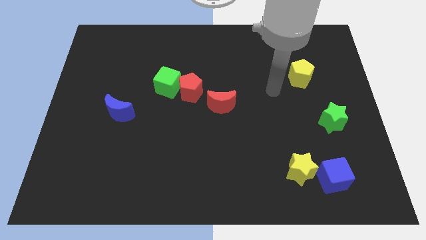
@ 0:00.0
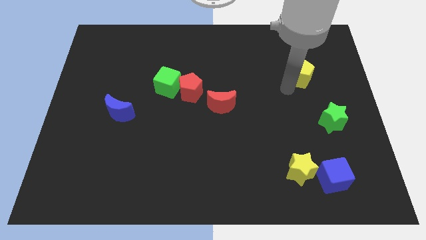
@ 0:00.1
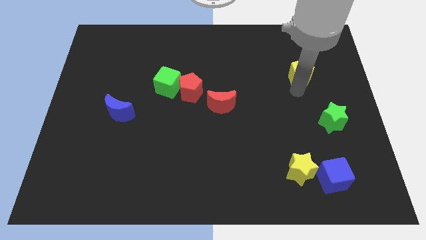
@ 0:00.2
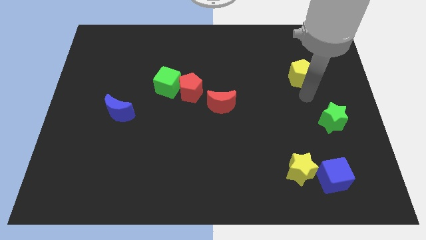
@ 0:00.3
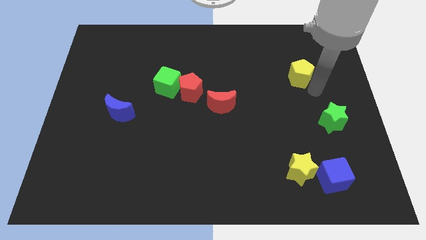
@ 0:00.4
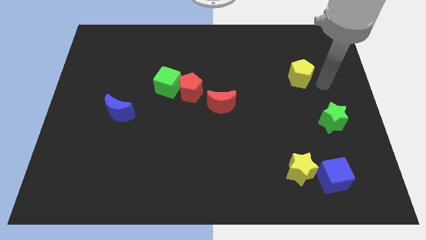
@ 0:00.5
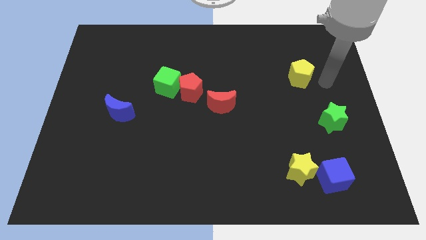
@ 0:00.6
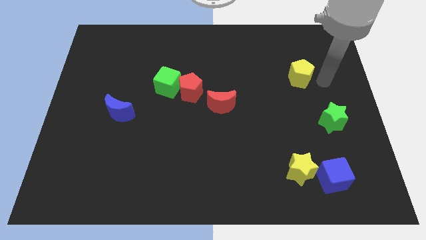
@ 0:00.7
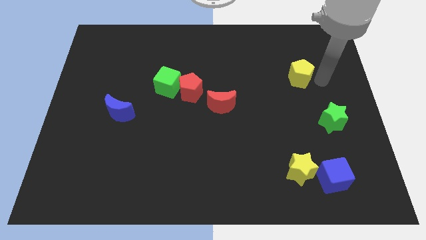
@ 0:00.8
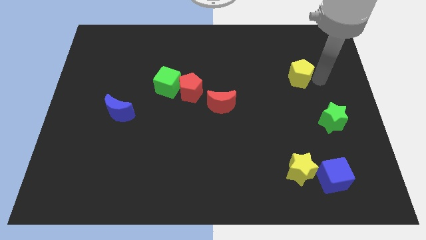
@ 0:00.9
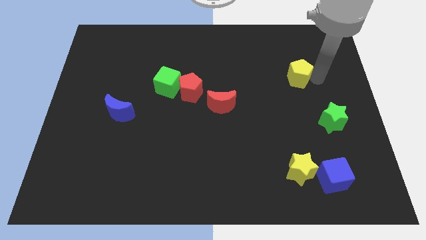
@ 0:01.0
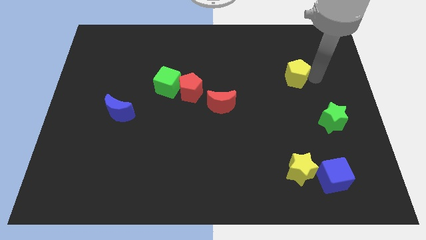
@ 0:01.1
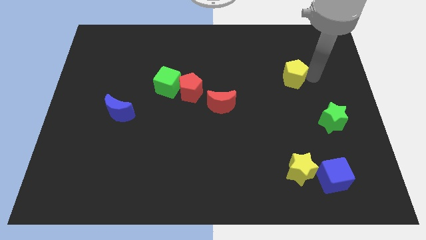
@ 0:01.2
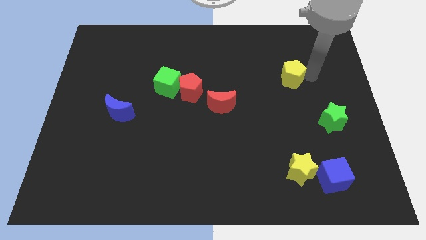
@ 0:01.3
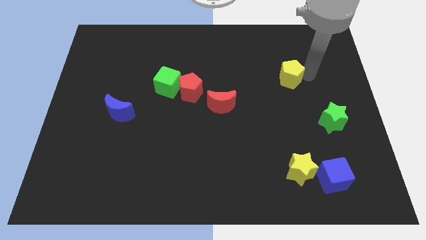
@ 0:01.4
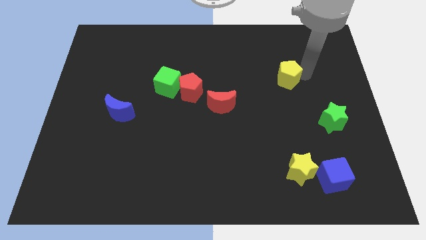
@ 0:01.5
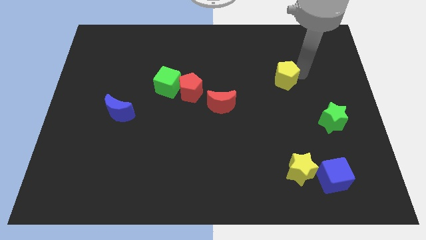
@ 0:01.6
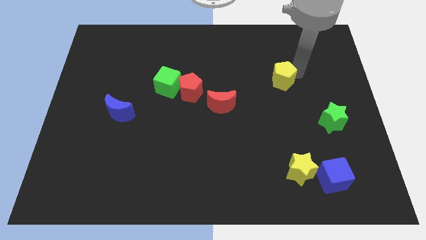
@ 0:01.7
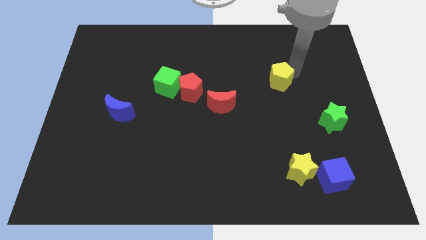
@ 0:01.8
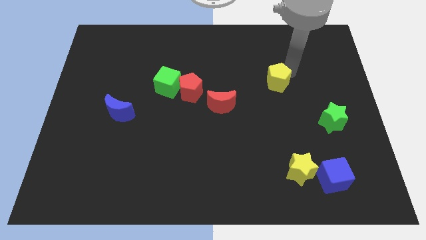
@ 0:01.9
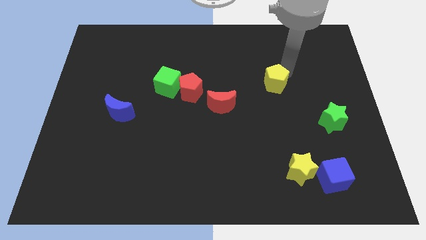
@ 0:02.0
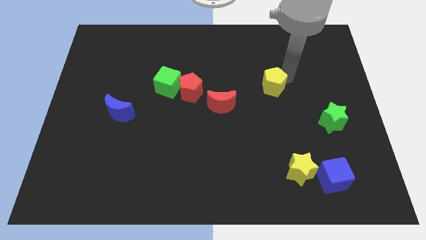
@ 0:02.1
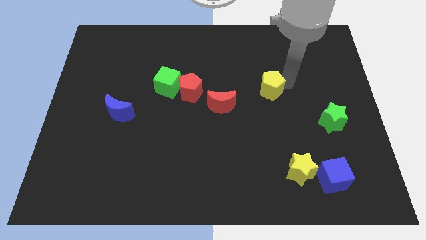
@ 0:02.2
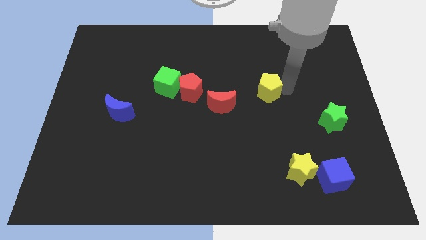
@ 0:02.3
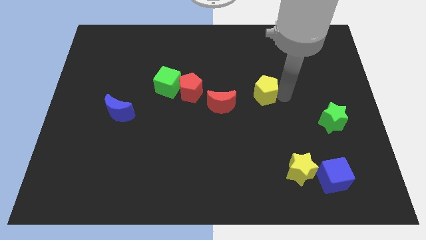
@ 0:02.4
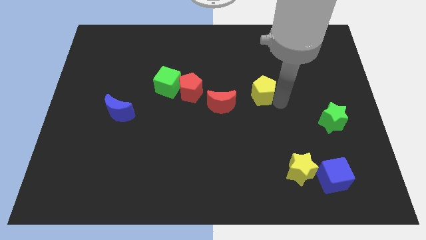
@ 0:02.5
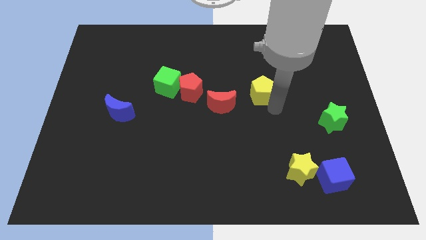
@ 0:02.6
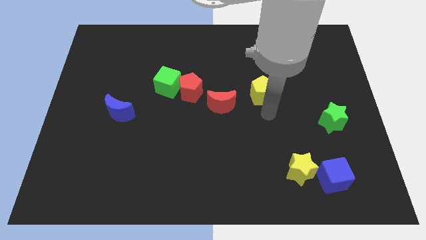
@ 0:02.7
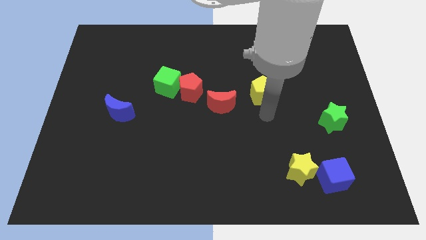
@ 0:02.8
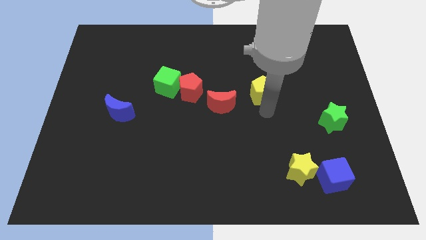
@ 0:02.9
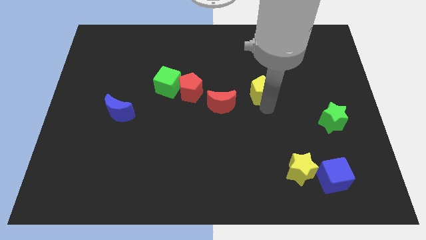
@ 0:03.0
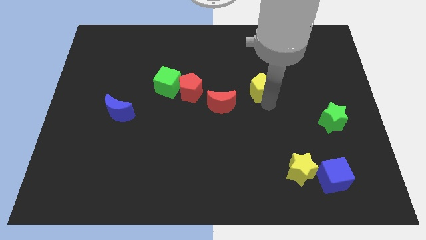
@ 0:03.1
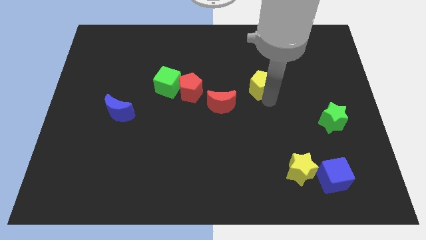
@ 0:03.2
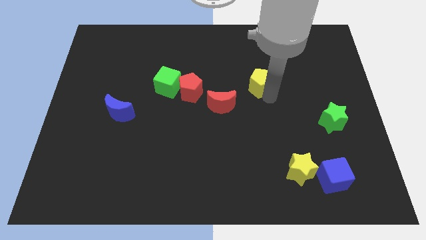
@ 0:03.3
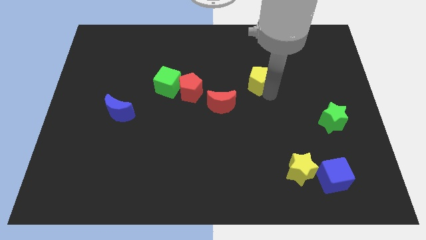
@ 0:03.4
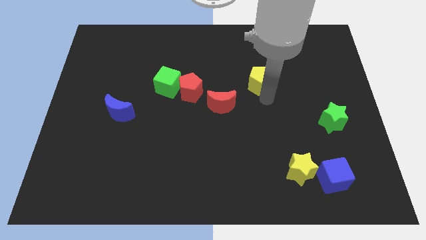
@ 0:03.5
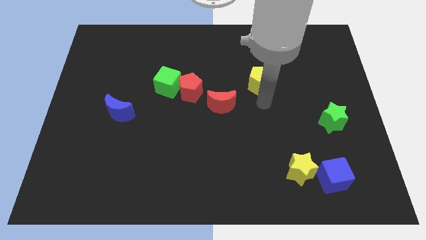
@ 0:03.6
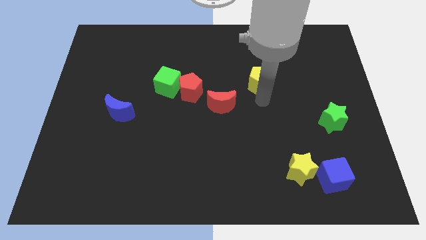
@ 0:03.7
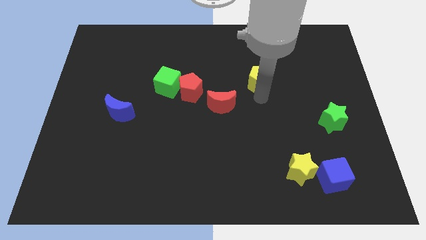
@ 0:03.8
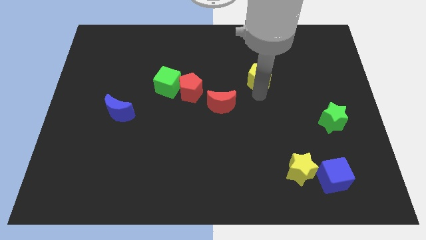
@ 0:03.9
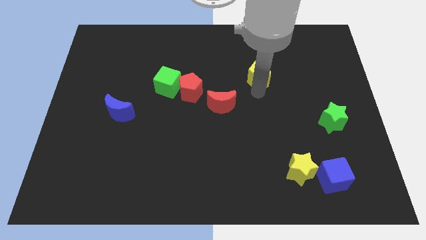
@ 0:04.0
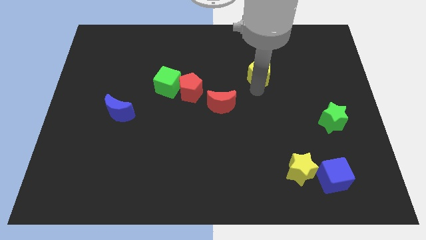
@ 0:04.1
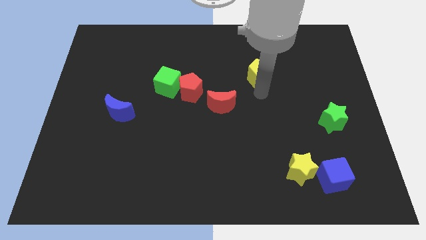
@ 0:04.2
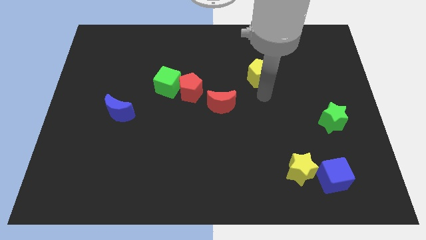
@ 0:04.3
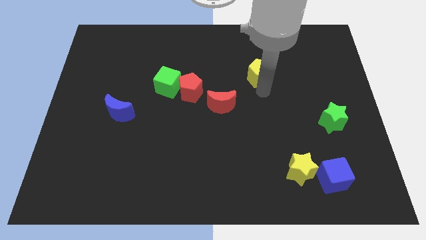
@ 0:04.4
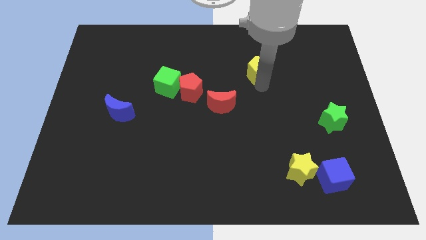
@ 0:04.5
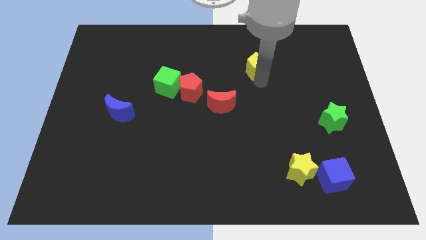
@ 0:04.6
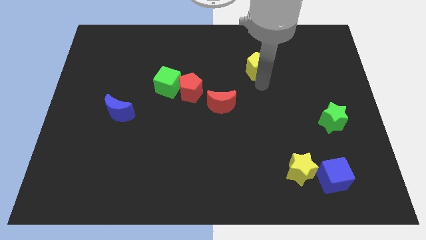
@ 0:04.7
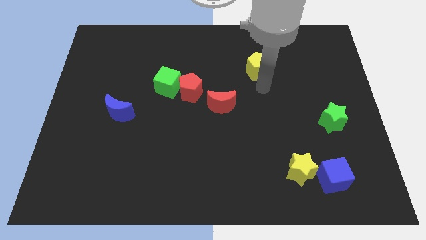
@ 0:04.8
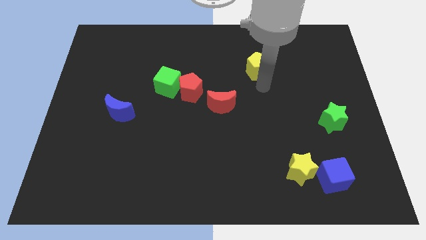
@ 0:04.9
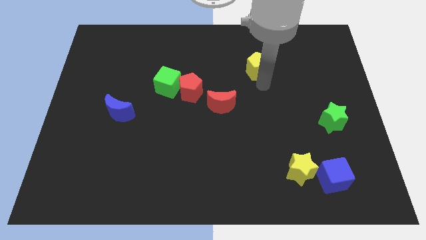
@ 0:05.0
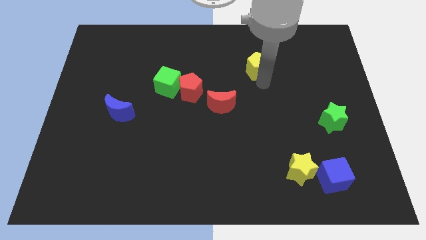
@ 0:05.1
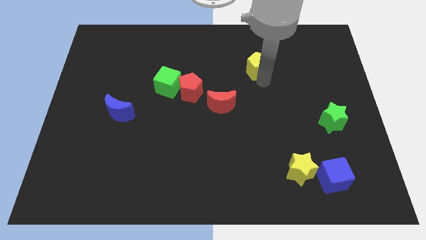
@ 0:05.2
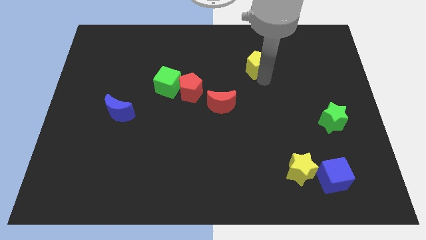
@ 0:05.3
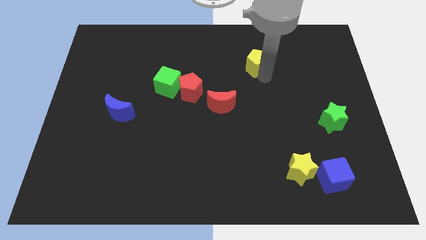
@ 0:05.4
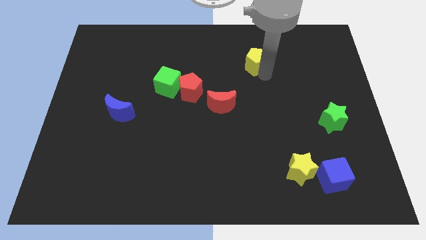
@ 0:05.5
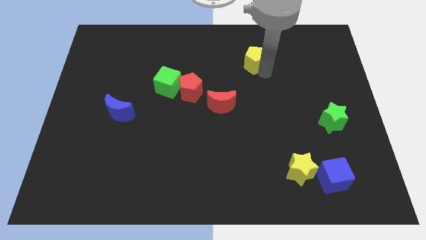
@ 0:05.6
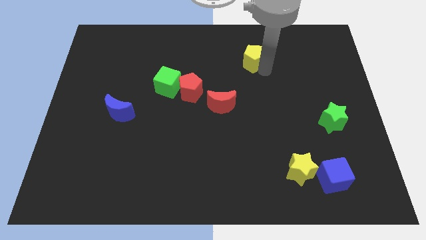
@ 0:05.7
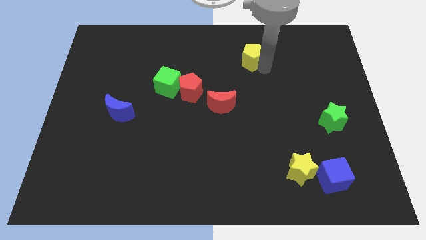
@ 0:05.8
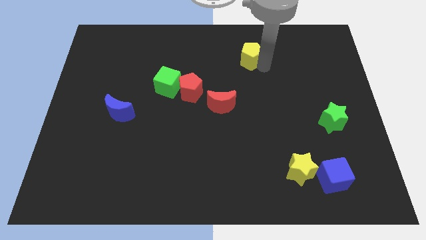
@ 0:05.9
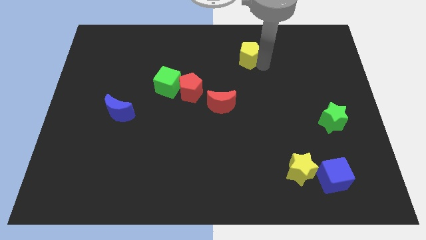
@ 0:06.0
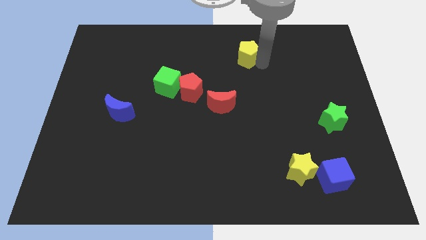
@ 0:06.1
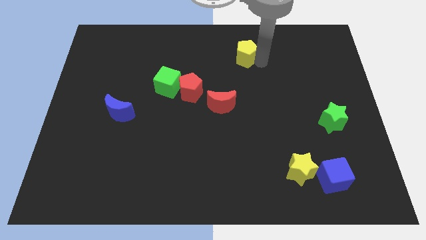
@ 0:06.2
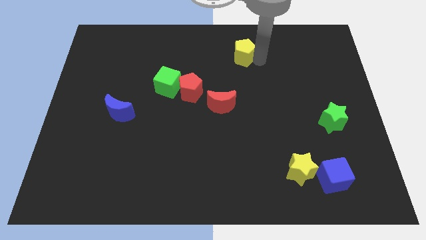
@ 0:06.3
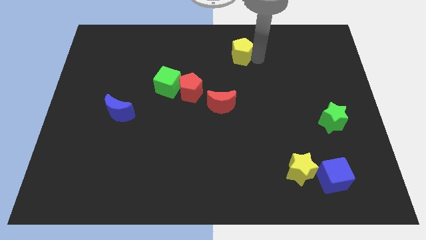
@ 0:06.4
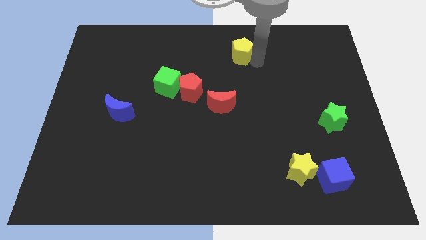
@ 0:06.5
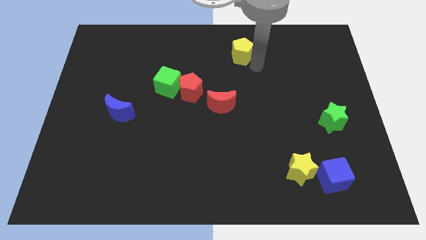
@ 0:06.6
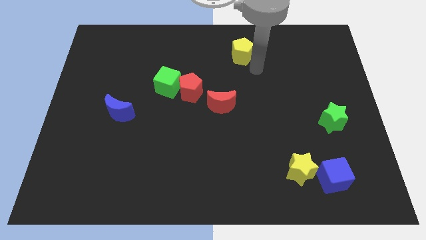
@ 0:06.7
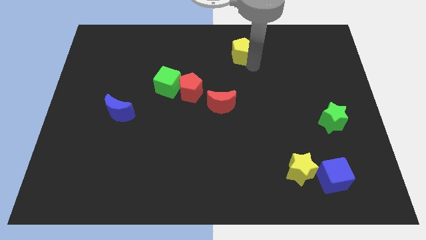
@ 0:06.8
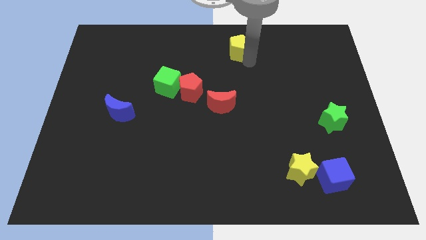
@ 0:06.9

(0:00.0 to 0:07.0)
push the yellow pentagon to the top side

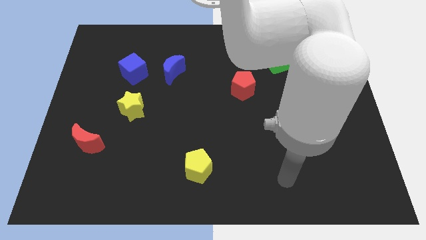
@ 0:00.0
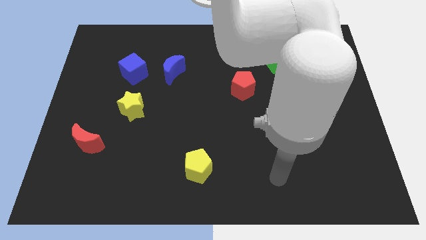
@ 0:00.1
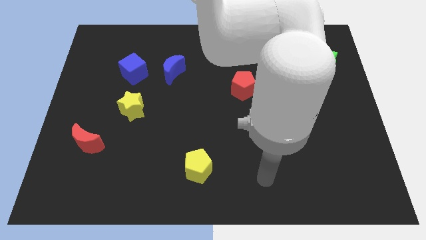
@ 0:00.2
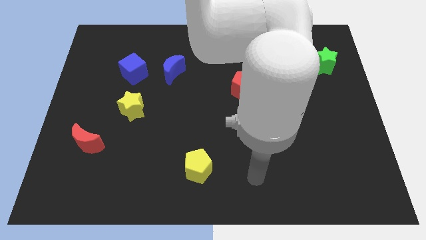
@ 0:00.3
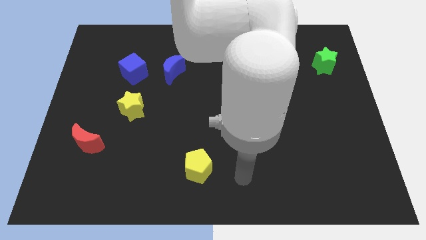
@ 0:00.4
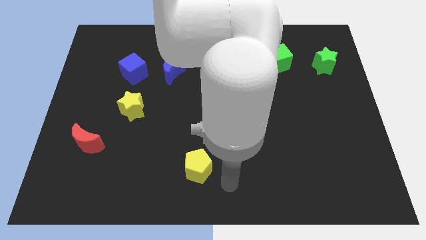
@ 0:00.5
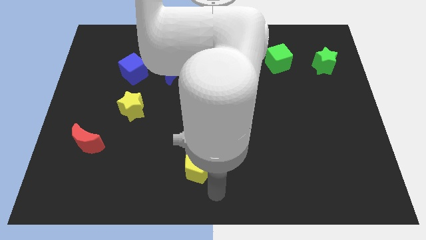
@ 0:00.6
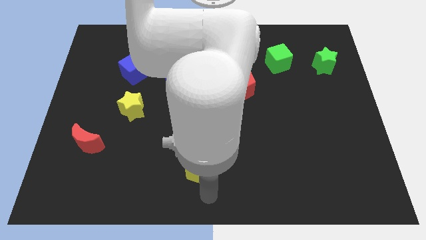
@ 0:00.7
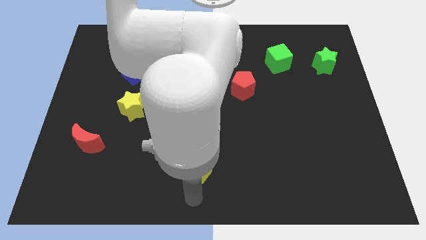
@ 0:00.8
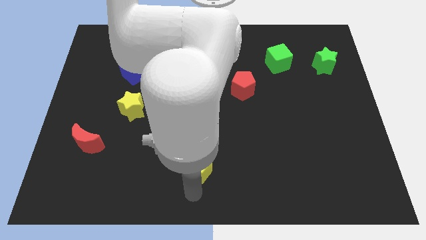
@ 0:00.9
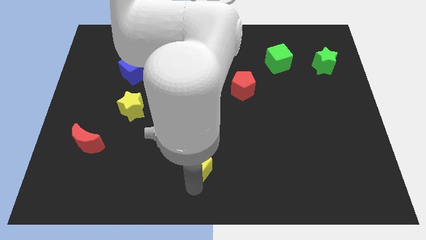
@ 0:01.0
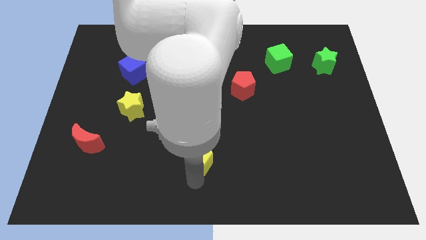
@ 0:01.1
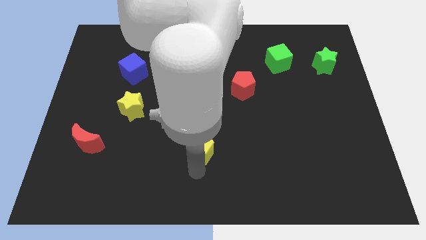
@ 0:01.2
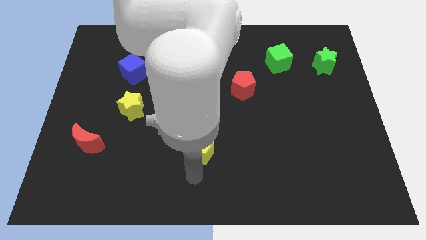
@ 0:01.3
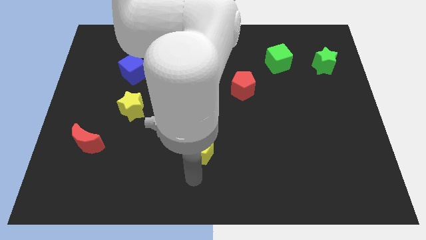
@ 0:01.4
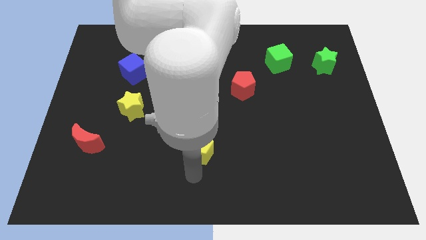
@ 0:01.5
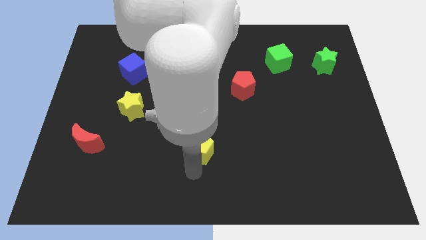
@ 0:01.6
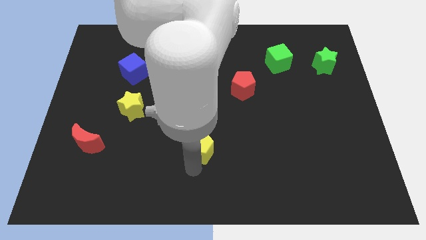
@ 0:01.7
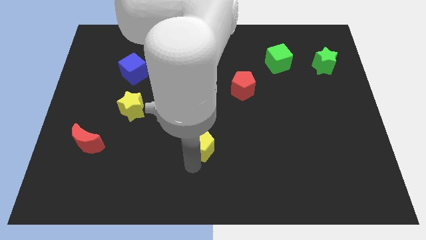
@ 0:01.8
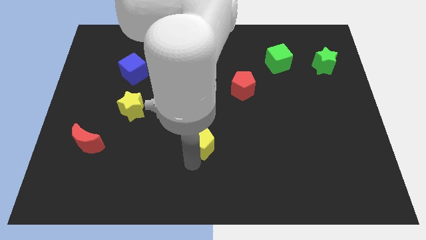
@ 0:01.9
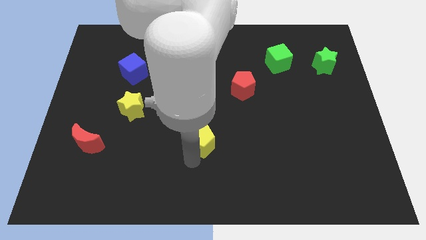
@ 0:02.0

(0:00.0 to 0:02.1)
push the yellow pentagon to the center of the board
